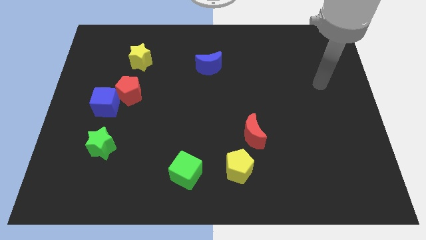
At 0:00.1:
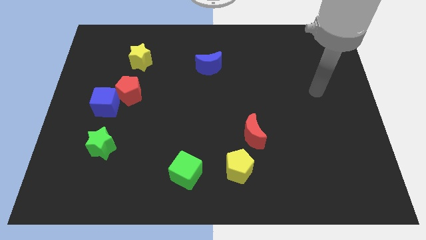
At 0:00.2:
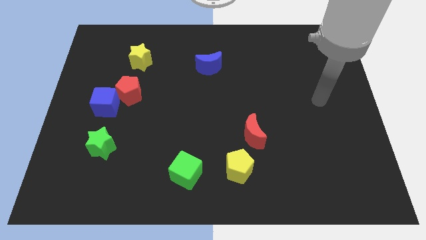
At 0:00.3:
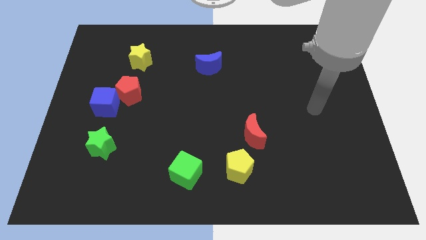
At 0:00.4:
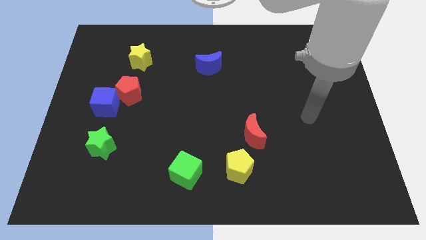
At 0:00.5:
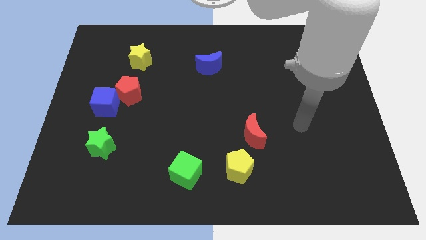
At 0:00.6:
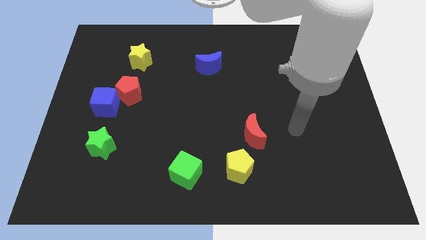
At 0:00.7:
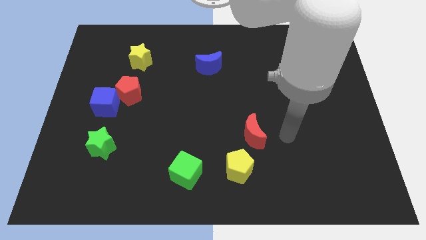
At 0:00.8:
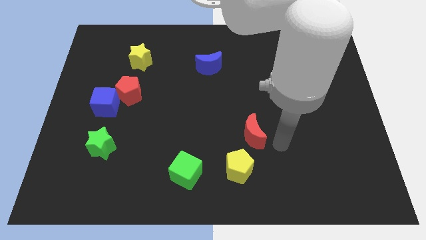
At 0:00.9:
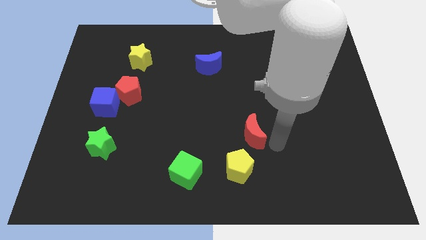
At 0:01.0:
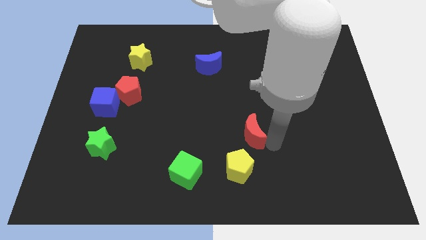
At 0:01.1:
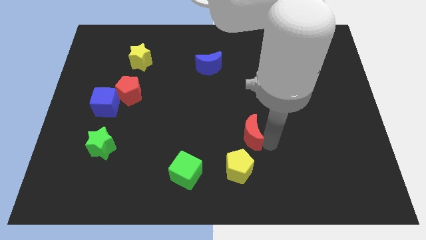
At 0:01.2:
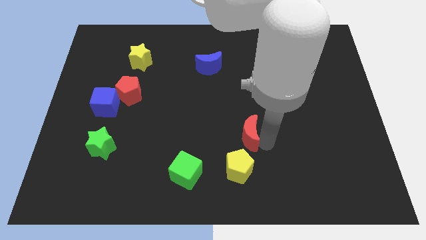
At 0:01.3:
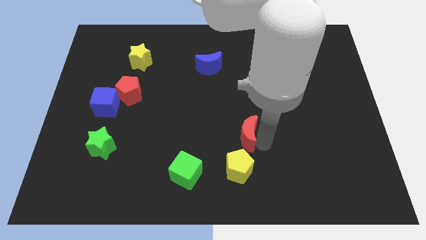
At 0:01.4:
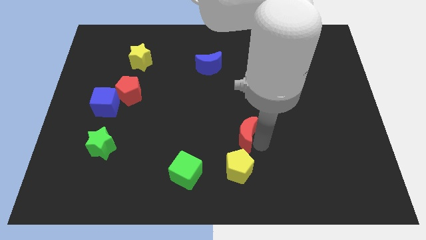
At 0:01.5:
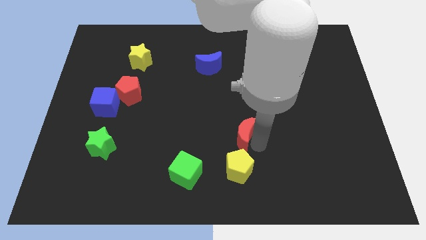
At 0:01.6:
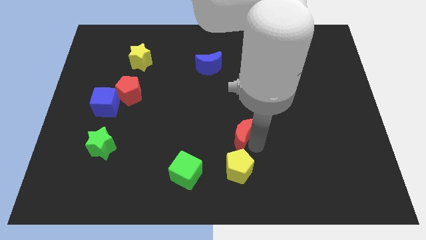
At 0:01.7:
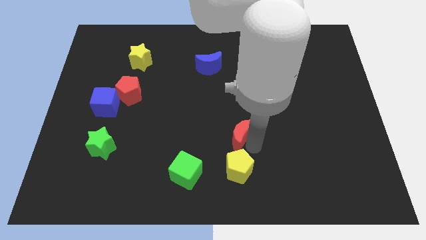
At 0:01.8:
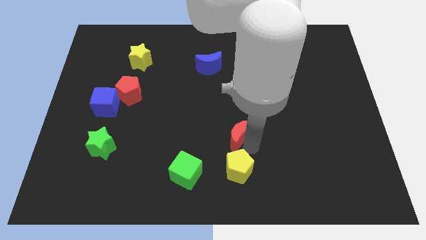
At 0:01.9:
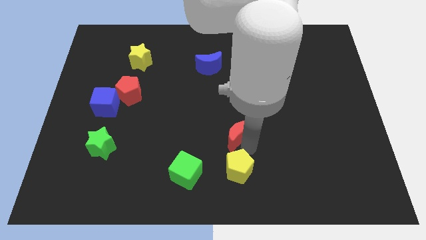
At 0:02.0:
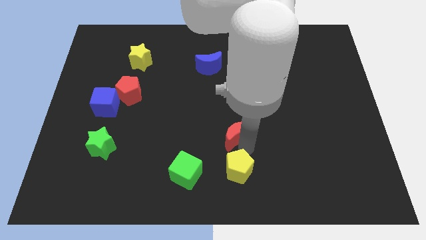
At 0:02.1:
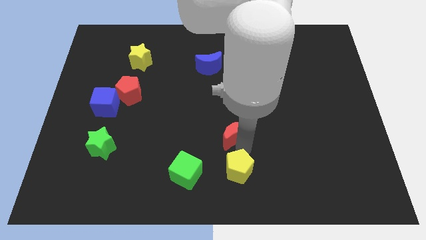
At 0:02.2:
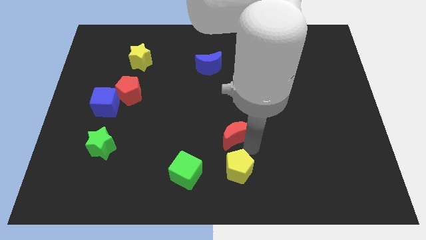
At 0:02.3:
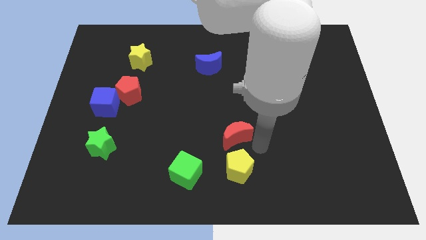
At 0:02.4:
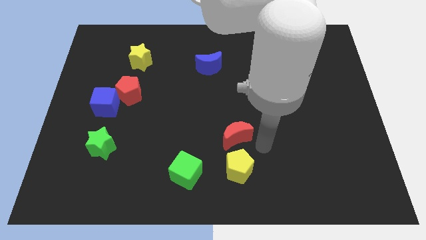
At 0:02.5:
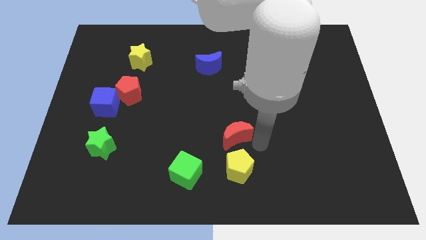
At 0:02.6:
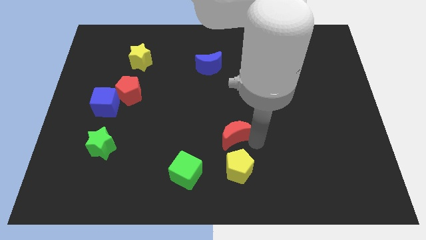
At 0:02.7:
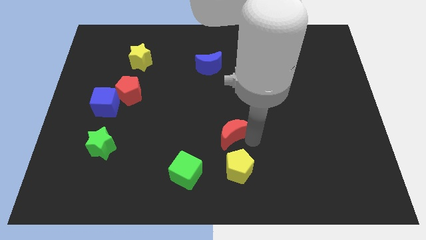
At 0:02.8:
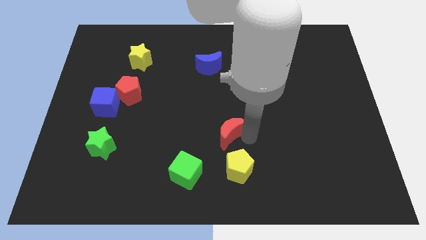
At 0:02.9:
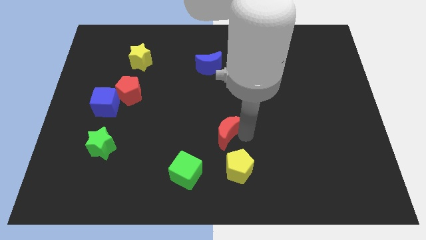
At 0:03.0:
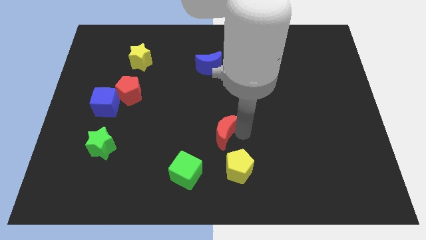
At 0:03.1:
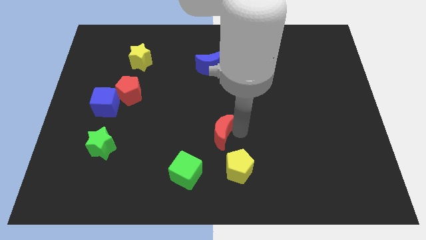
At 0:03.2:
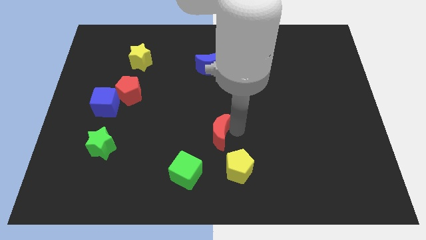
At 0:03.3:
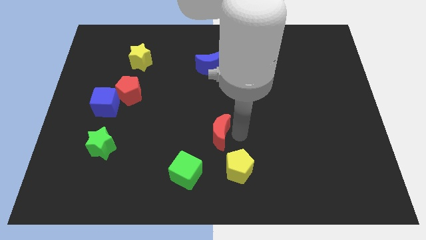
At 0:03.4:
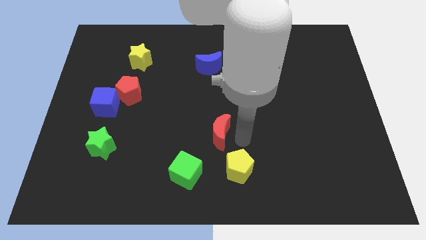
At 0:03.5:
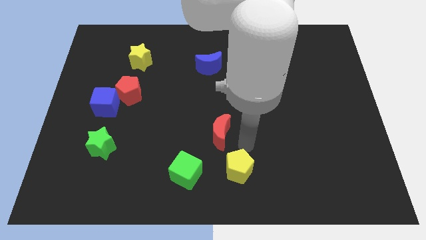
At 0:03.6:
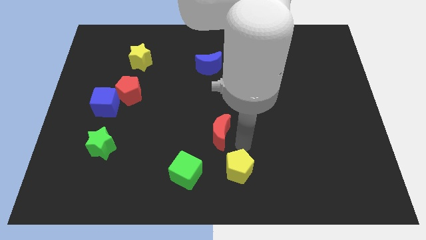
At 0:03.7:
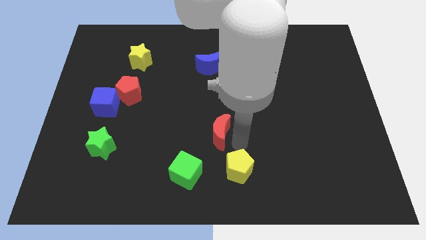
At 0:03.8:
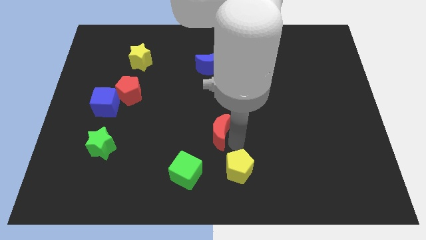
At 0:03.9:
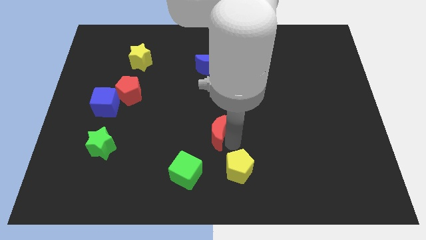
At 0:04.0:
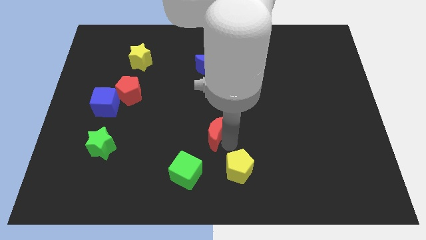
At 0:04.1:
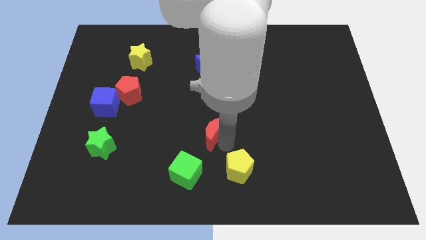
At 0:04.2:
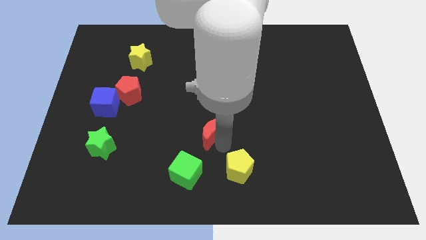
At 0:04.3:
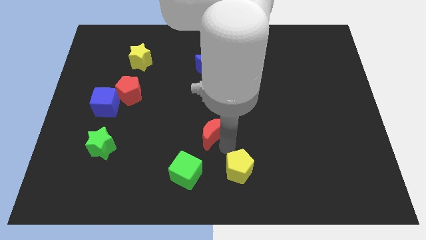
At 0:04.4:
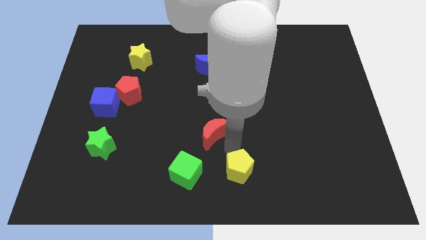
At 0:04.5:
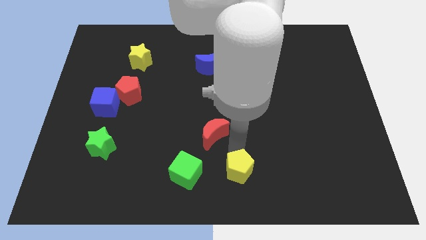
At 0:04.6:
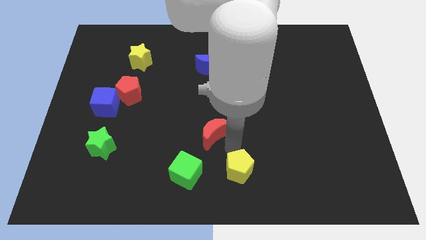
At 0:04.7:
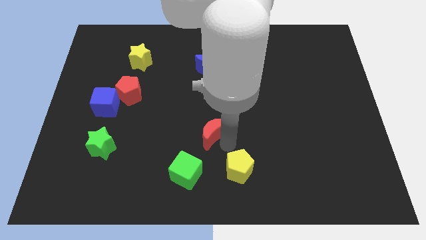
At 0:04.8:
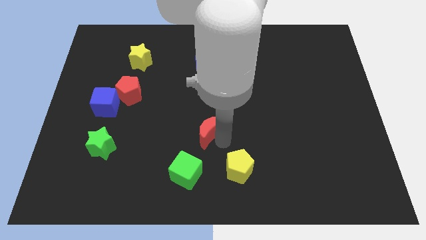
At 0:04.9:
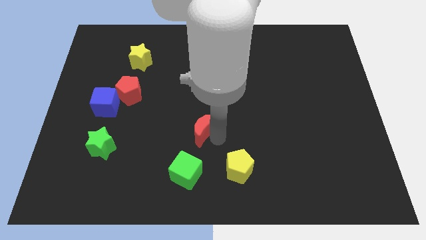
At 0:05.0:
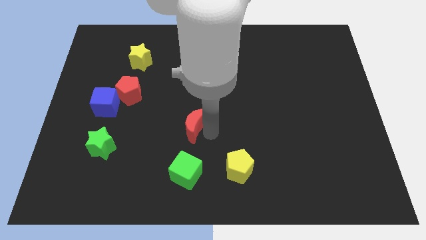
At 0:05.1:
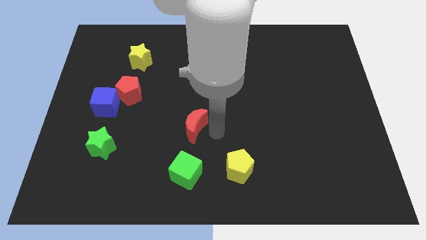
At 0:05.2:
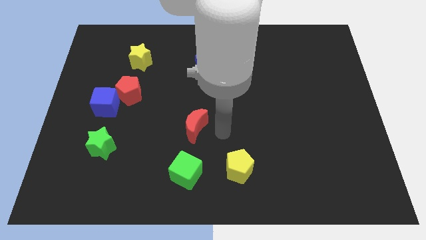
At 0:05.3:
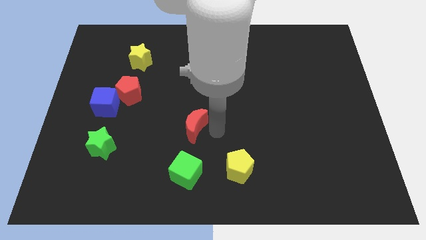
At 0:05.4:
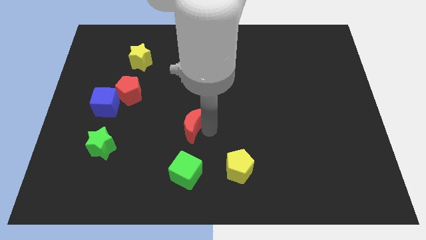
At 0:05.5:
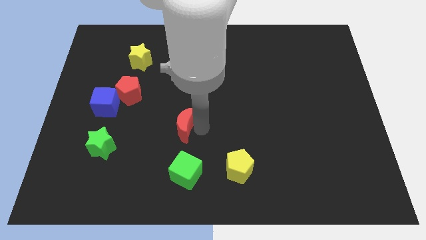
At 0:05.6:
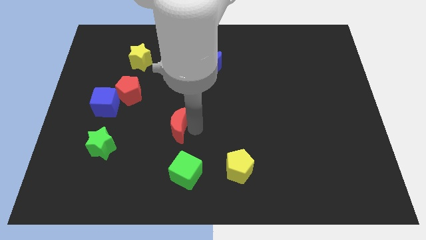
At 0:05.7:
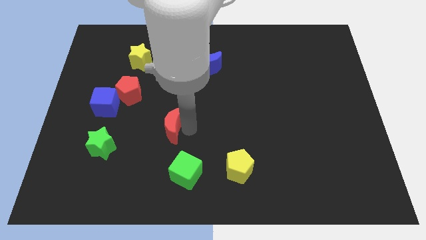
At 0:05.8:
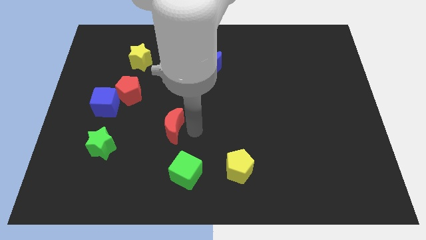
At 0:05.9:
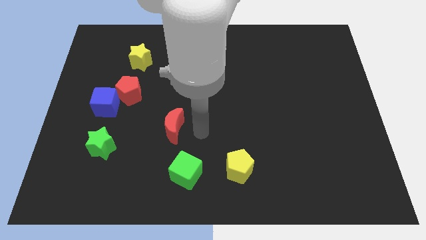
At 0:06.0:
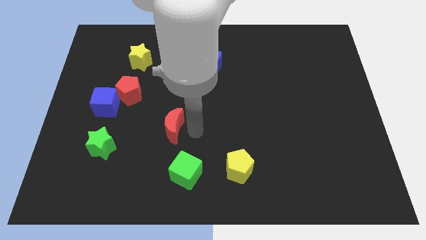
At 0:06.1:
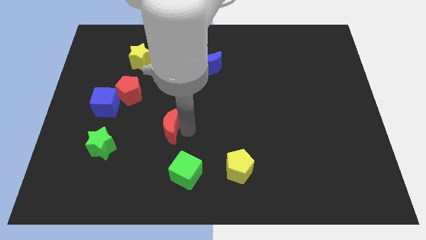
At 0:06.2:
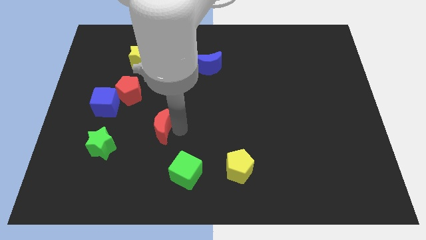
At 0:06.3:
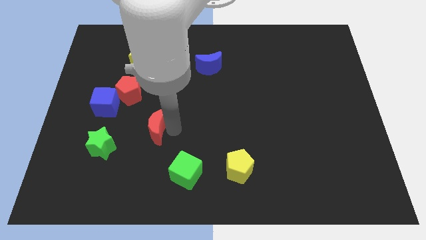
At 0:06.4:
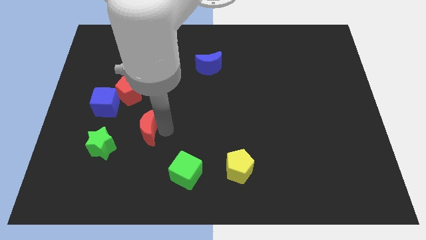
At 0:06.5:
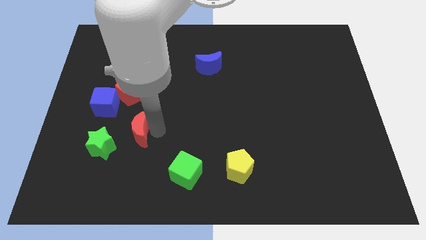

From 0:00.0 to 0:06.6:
slide the red moon to the bottom right side of the blue cube

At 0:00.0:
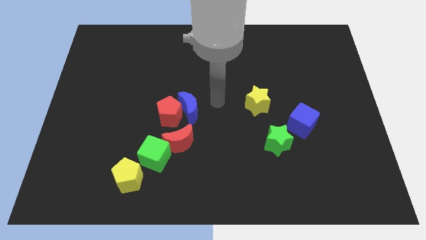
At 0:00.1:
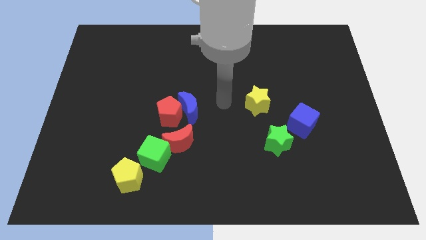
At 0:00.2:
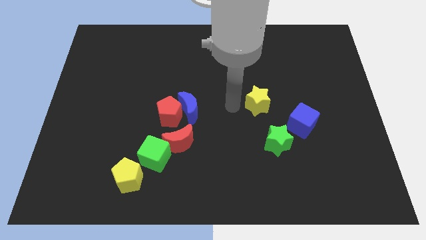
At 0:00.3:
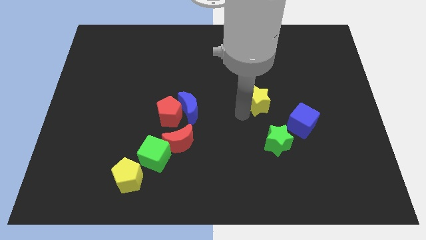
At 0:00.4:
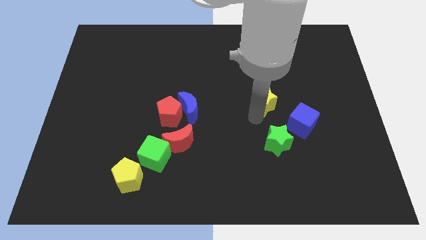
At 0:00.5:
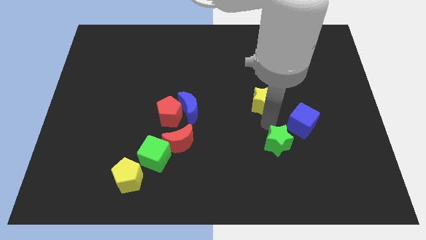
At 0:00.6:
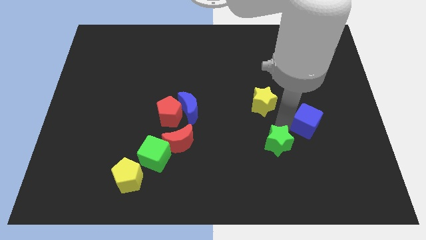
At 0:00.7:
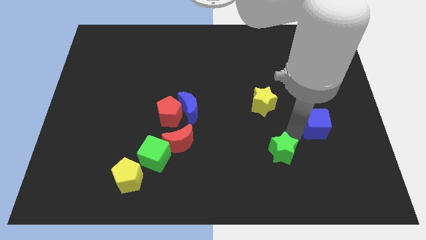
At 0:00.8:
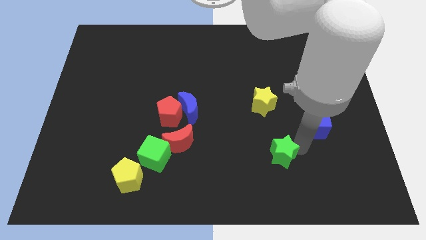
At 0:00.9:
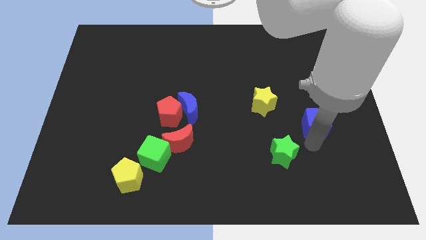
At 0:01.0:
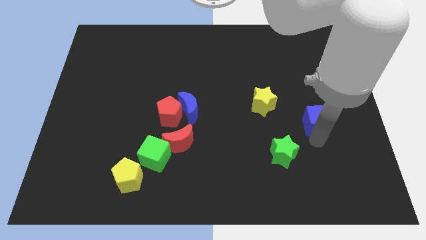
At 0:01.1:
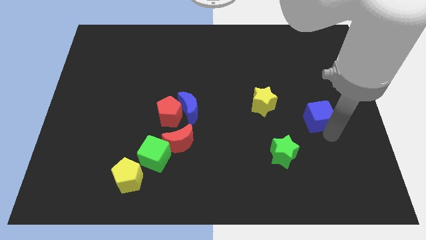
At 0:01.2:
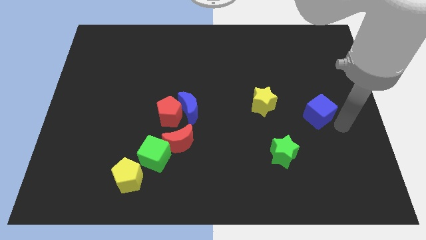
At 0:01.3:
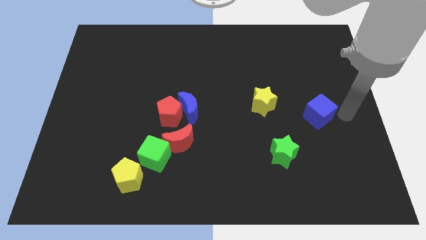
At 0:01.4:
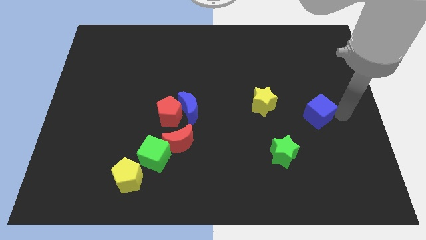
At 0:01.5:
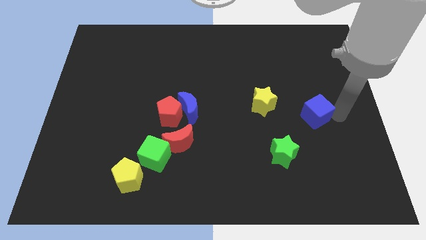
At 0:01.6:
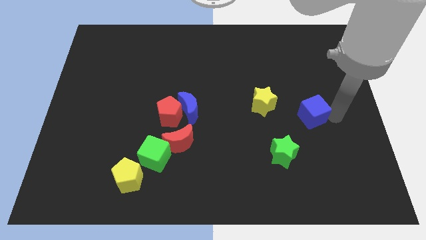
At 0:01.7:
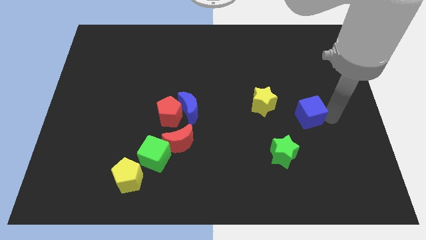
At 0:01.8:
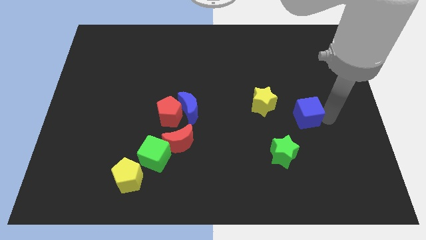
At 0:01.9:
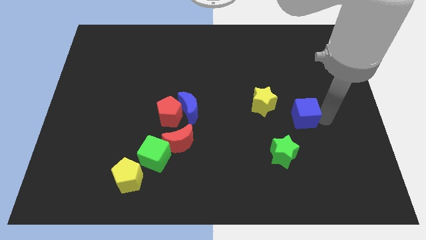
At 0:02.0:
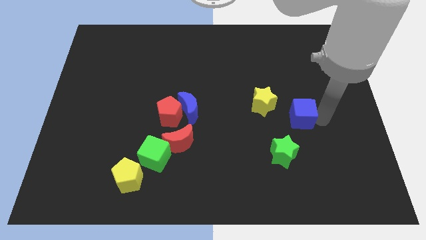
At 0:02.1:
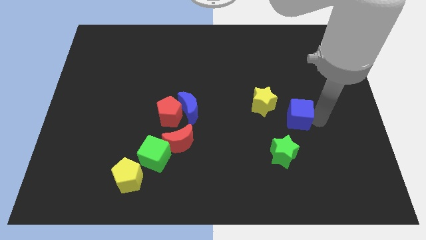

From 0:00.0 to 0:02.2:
slide the blue cube to the top side of the green star
